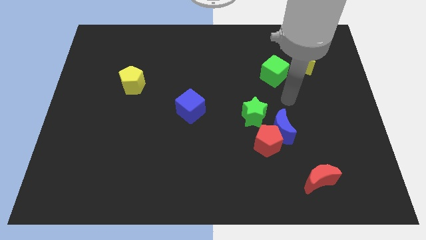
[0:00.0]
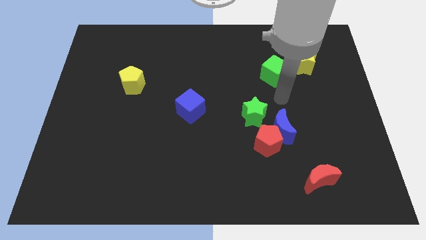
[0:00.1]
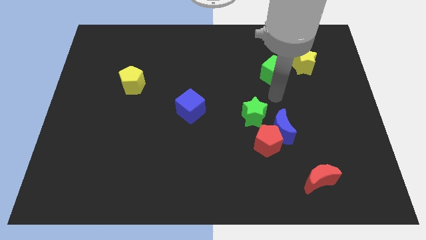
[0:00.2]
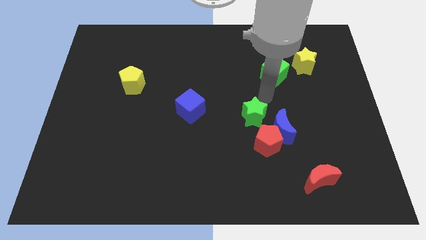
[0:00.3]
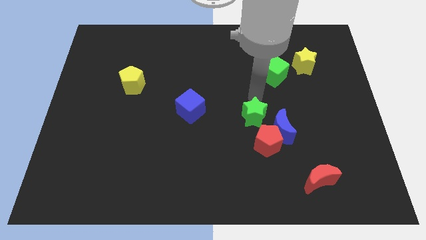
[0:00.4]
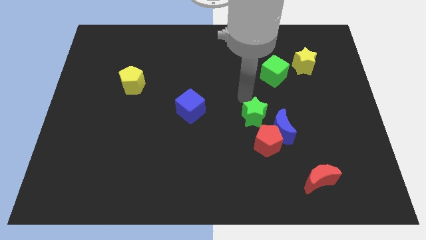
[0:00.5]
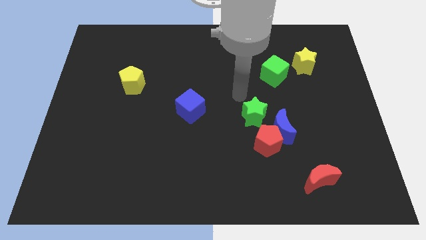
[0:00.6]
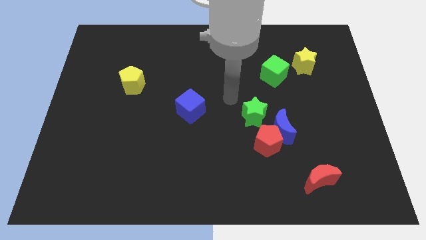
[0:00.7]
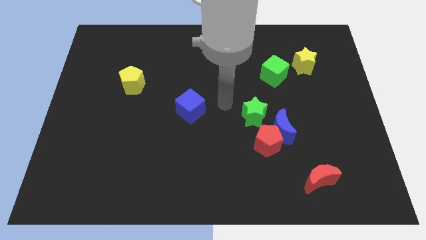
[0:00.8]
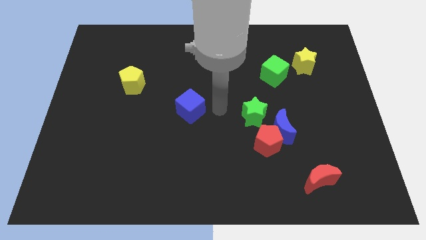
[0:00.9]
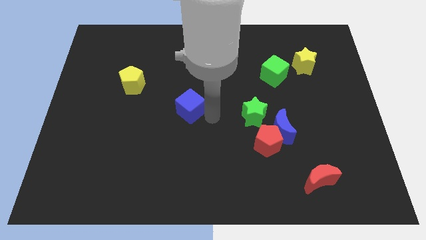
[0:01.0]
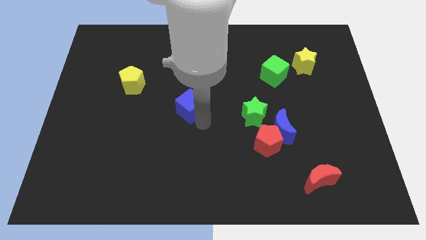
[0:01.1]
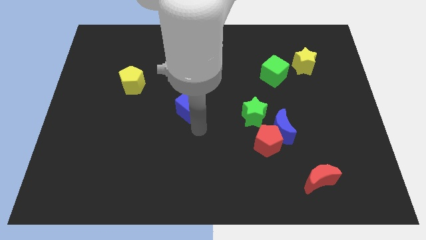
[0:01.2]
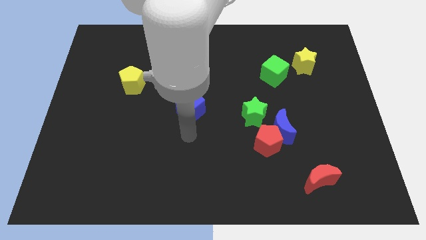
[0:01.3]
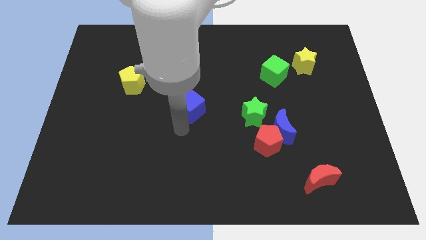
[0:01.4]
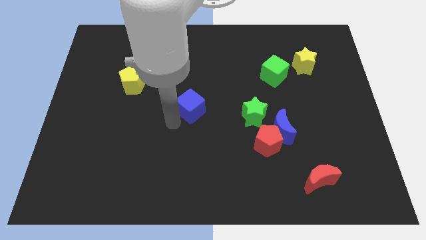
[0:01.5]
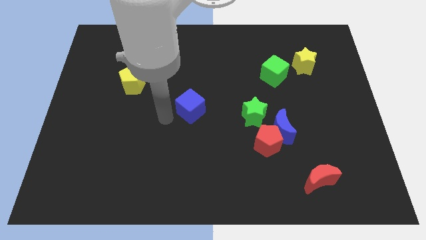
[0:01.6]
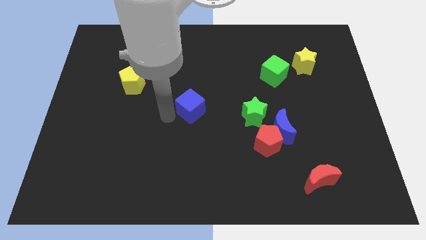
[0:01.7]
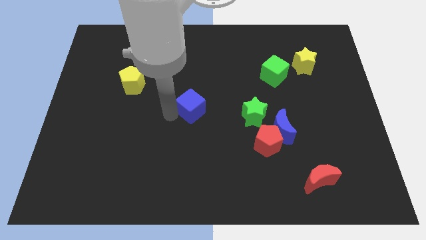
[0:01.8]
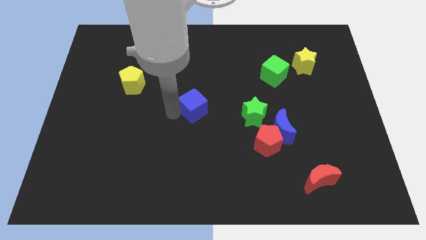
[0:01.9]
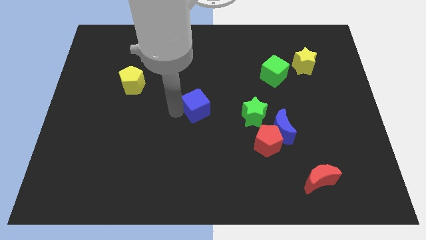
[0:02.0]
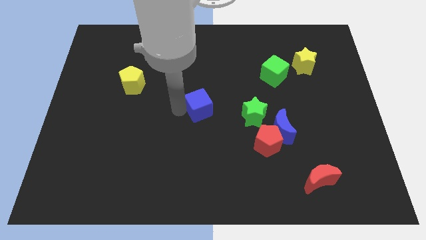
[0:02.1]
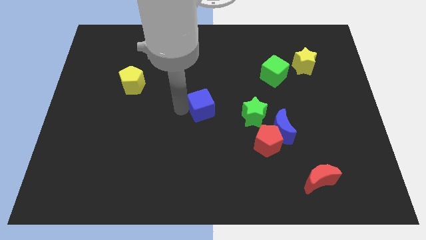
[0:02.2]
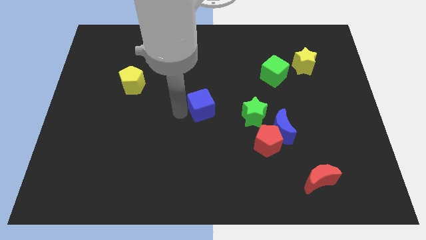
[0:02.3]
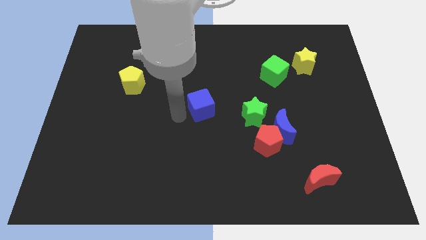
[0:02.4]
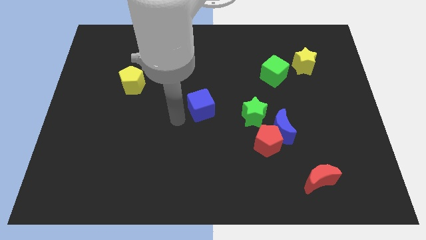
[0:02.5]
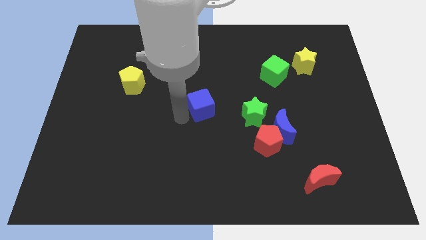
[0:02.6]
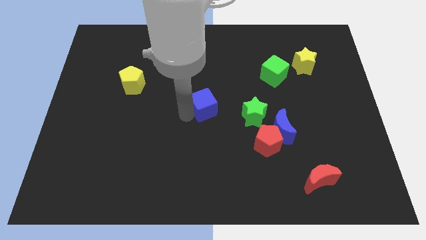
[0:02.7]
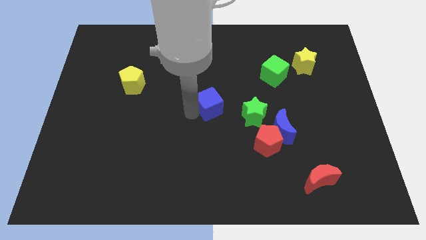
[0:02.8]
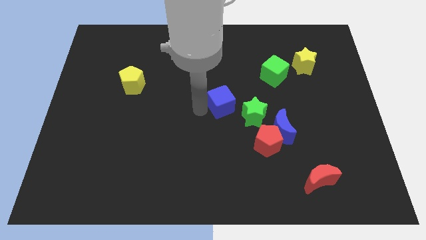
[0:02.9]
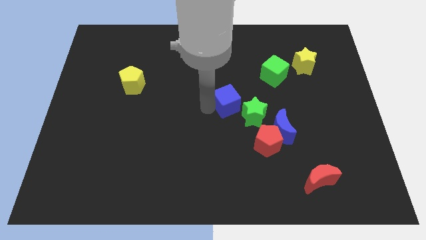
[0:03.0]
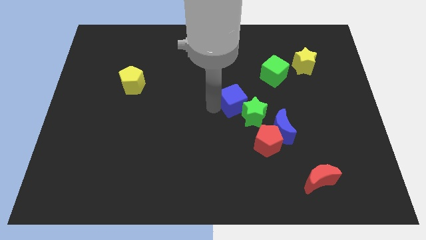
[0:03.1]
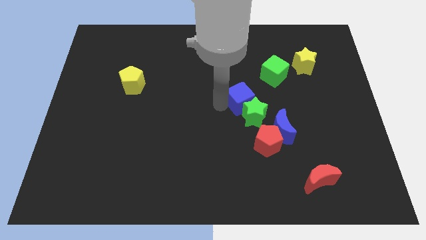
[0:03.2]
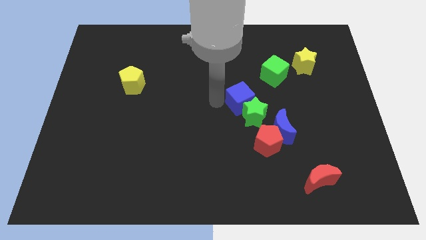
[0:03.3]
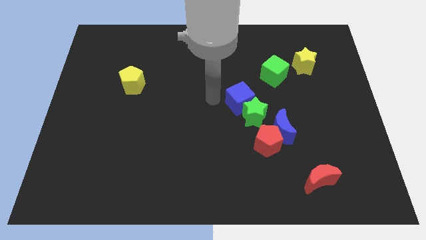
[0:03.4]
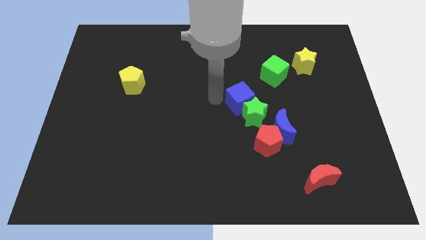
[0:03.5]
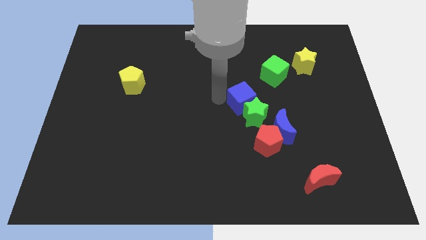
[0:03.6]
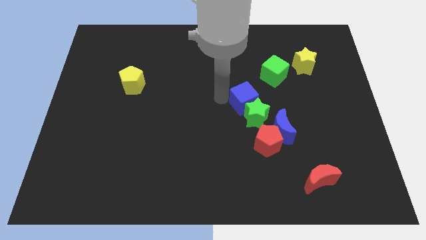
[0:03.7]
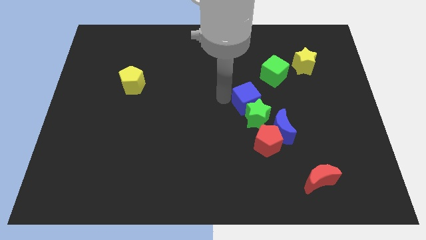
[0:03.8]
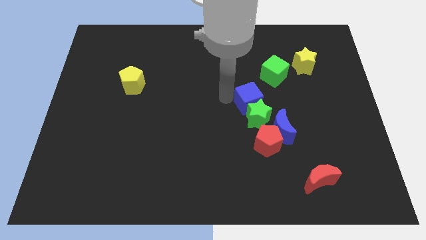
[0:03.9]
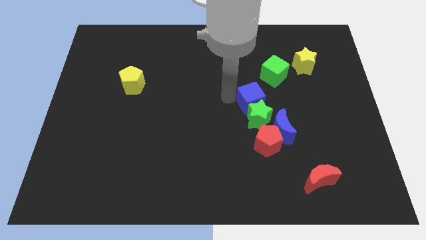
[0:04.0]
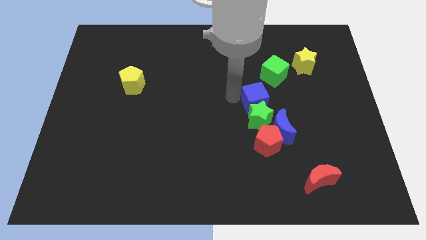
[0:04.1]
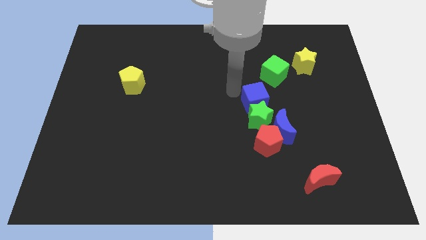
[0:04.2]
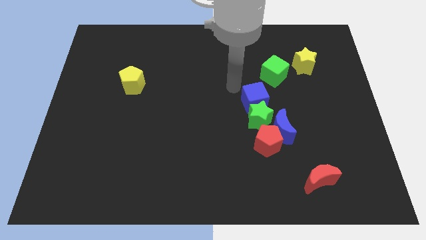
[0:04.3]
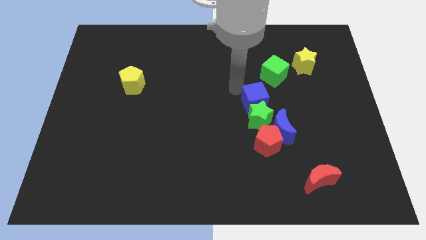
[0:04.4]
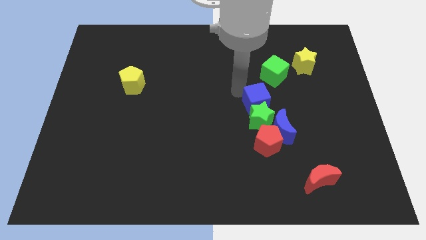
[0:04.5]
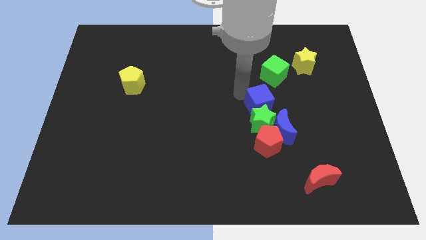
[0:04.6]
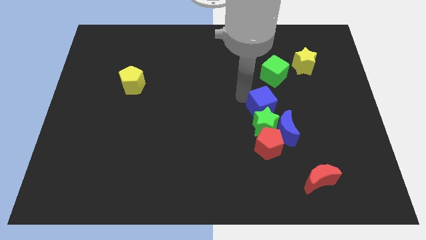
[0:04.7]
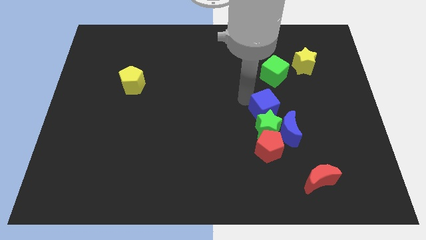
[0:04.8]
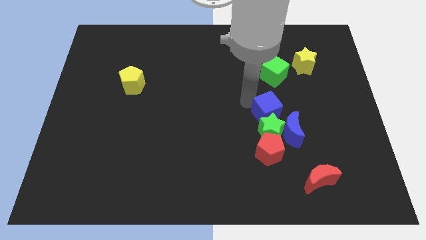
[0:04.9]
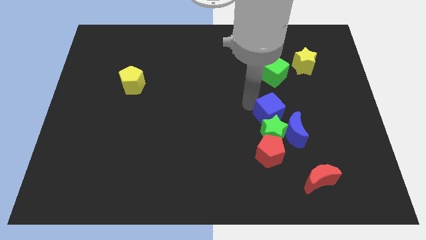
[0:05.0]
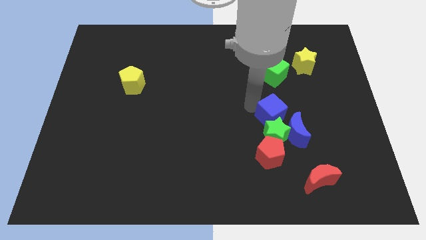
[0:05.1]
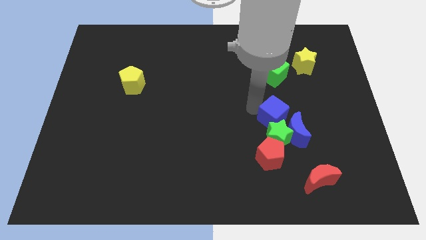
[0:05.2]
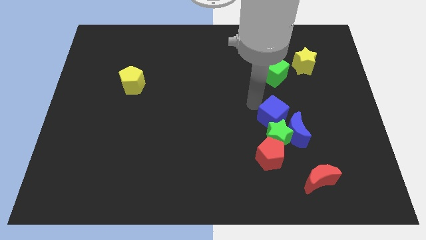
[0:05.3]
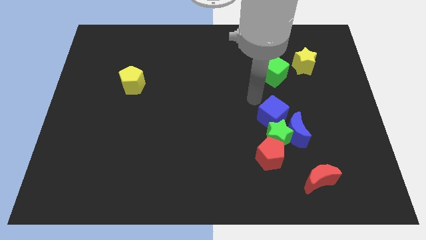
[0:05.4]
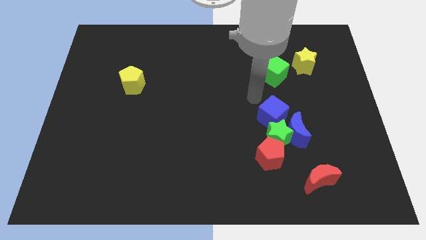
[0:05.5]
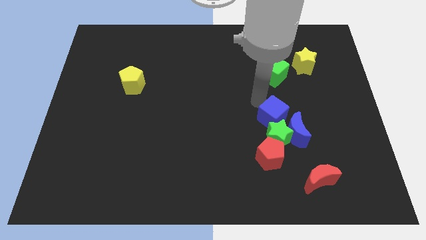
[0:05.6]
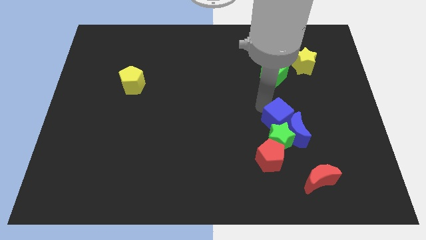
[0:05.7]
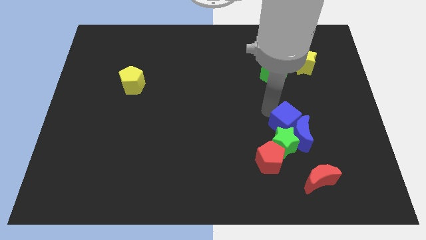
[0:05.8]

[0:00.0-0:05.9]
slide the blue cube diagonally up and to the right of the red pentagon

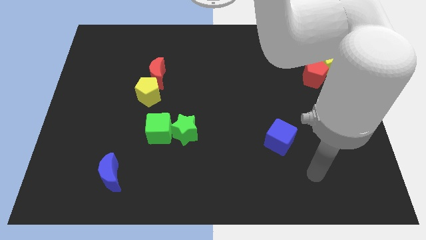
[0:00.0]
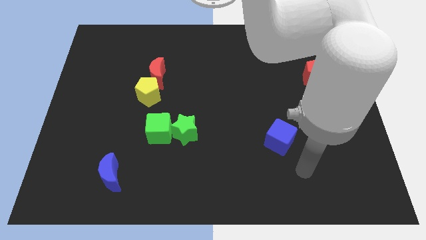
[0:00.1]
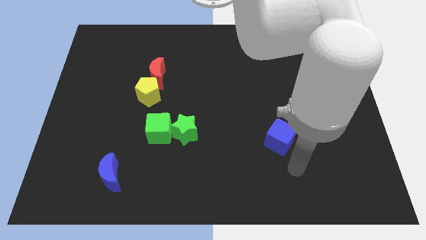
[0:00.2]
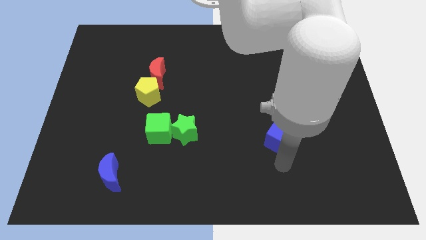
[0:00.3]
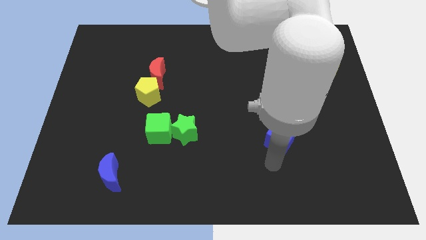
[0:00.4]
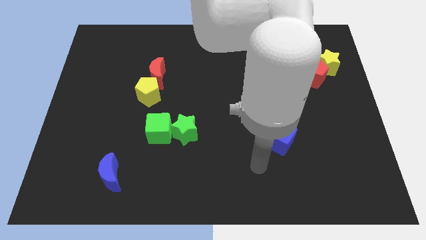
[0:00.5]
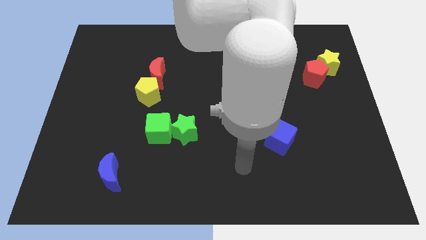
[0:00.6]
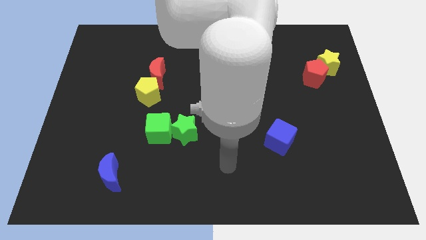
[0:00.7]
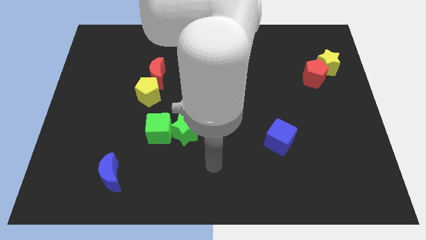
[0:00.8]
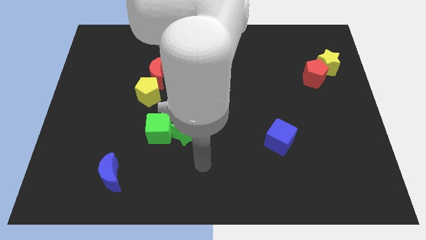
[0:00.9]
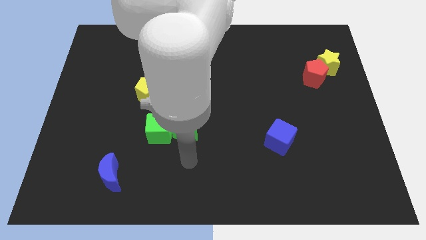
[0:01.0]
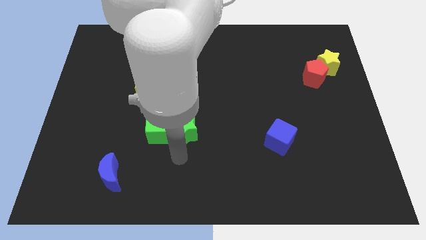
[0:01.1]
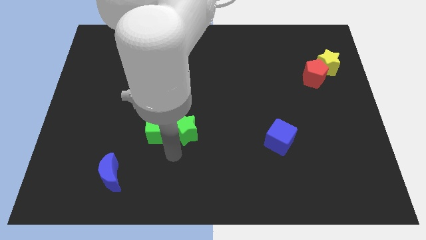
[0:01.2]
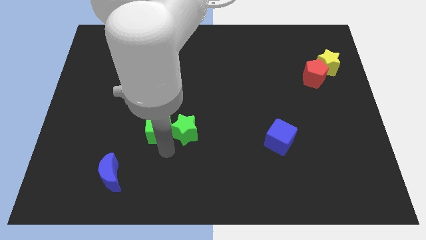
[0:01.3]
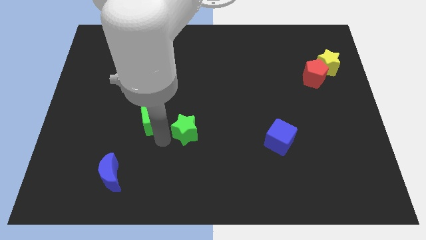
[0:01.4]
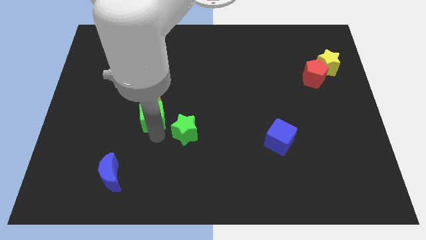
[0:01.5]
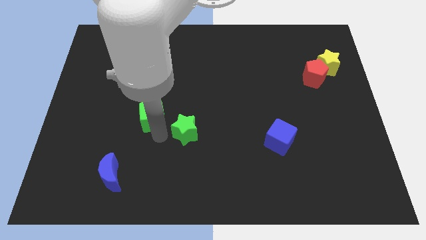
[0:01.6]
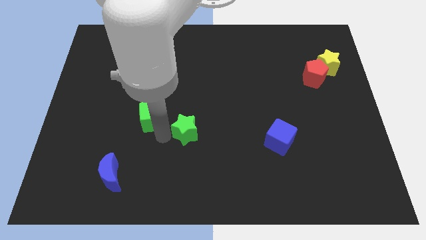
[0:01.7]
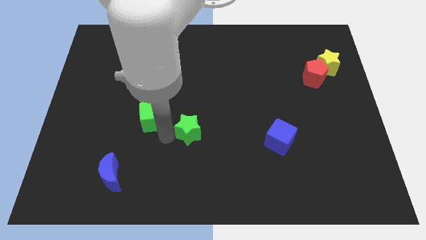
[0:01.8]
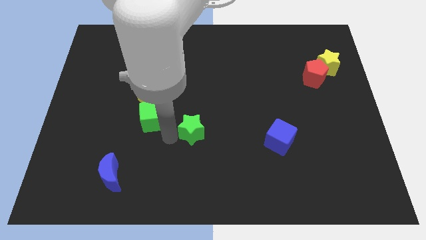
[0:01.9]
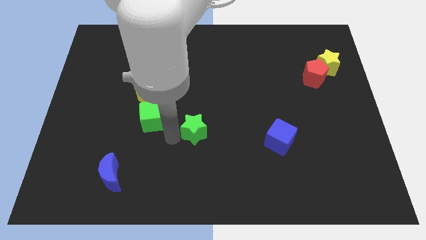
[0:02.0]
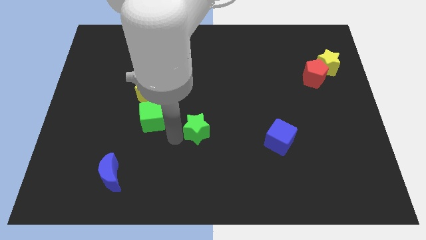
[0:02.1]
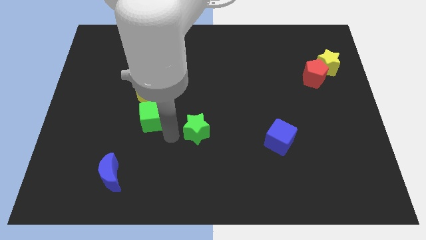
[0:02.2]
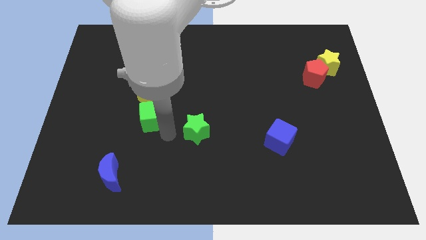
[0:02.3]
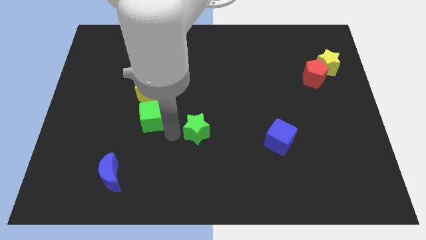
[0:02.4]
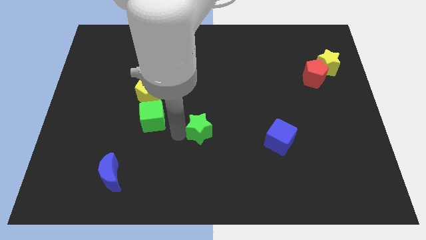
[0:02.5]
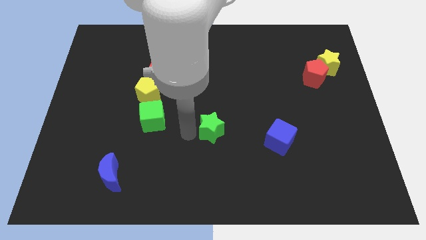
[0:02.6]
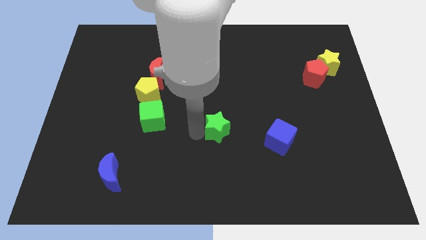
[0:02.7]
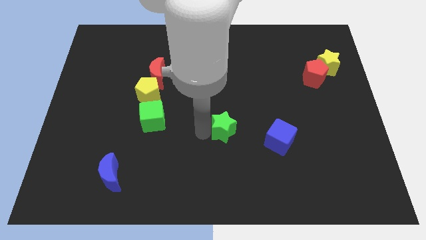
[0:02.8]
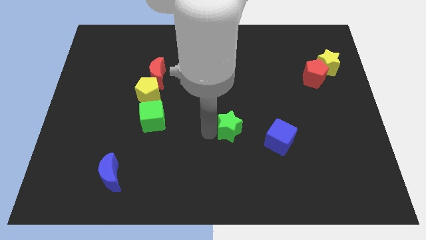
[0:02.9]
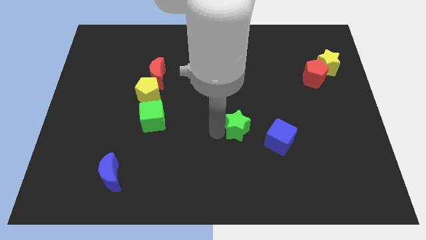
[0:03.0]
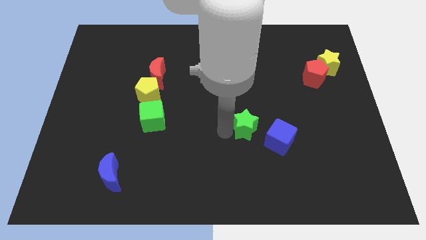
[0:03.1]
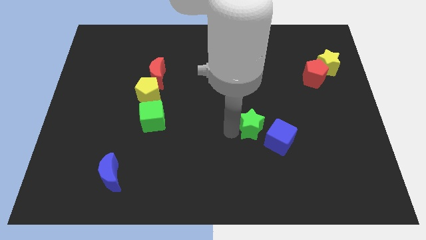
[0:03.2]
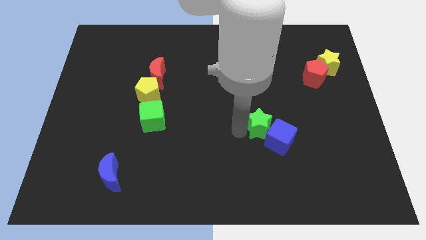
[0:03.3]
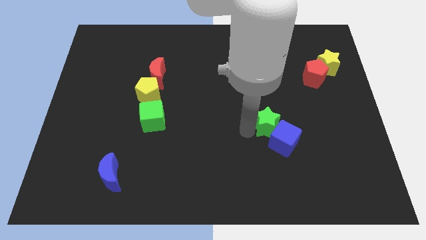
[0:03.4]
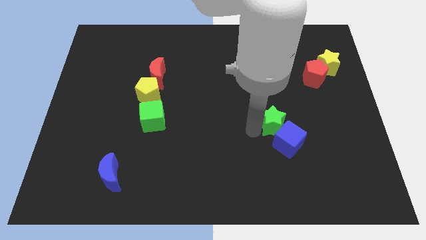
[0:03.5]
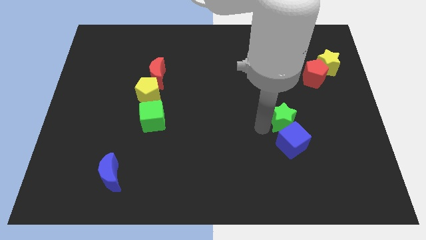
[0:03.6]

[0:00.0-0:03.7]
slide the green star to the top right side of the blue cube
